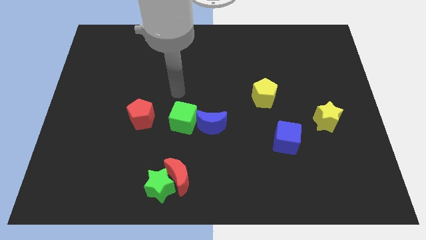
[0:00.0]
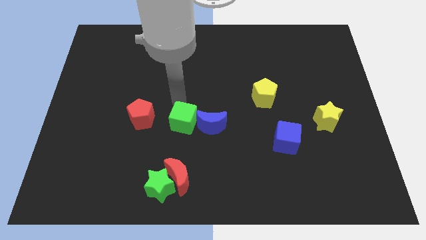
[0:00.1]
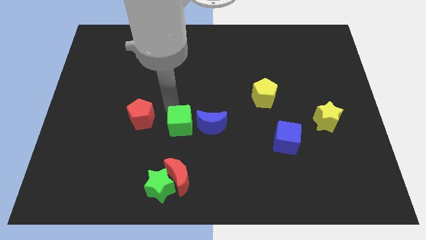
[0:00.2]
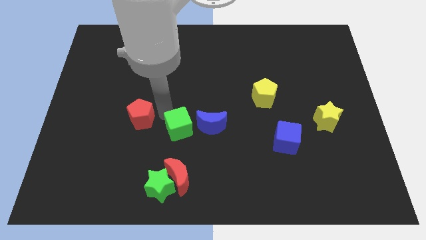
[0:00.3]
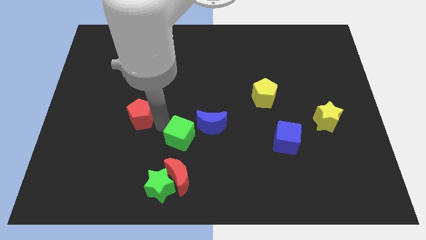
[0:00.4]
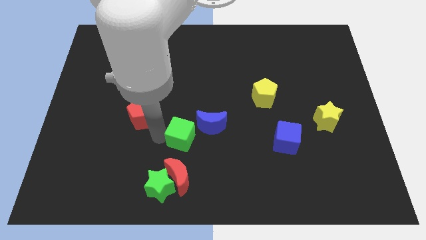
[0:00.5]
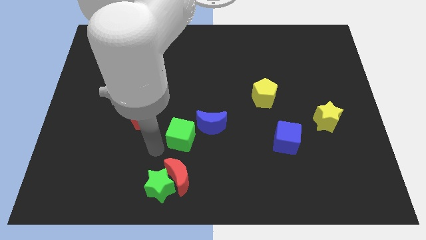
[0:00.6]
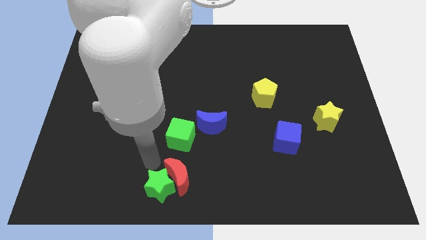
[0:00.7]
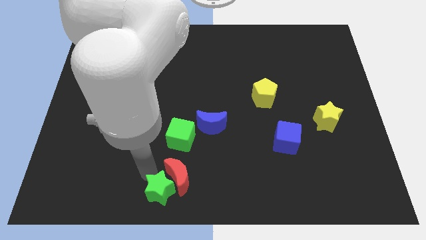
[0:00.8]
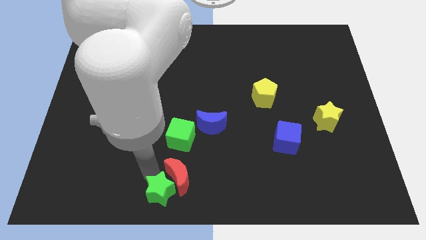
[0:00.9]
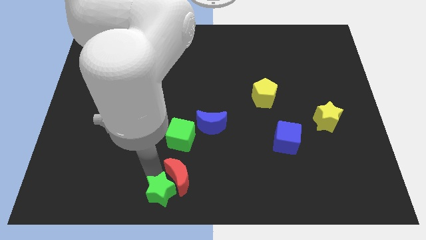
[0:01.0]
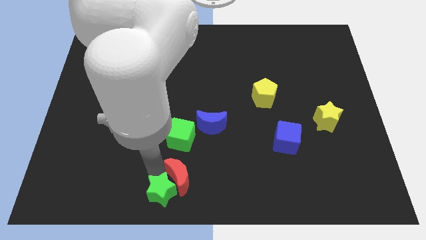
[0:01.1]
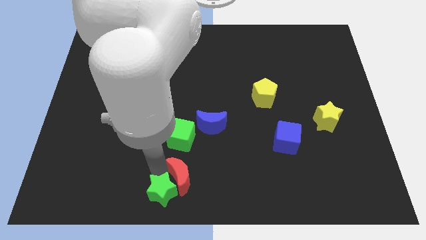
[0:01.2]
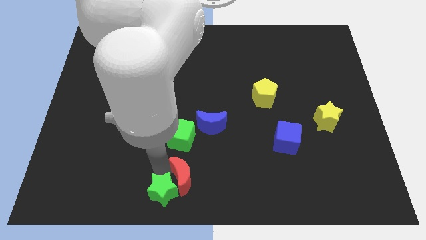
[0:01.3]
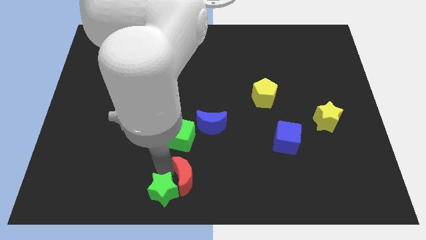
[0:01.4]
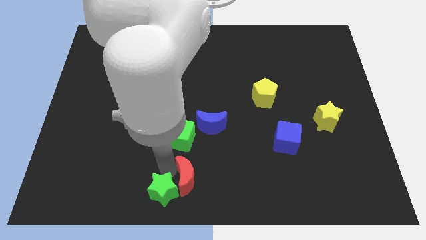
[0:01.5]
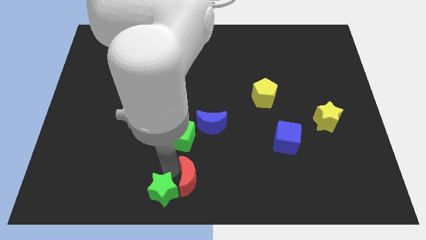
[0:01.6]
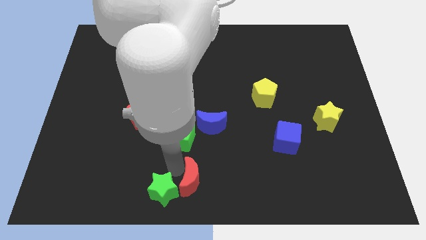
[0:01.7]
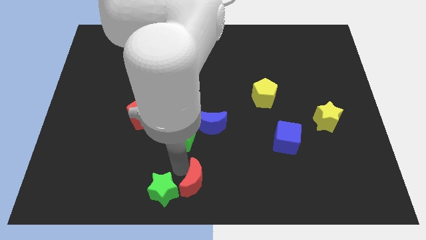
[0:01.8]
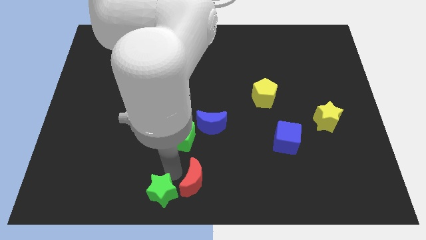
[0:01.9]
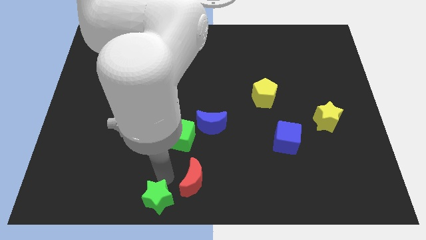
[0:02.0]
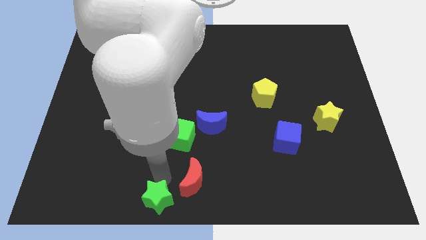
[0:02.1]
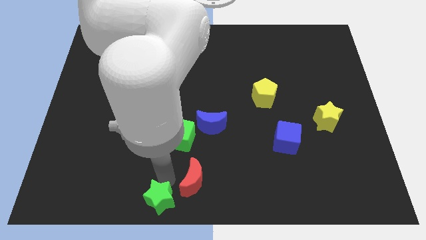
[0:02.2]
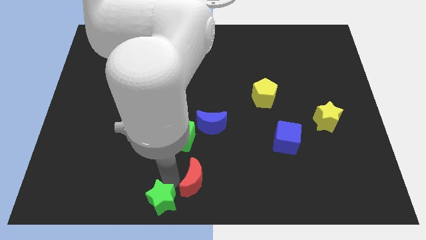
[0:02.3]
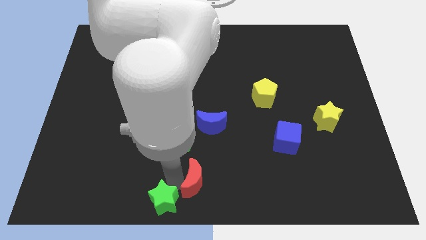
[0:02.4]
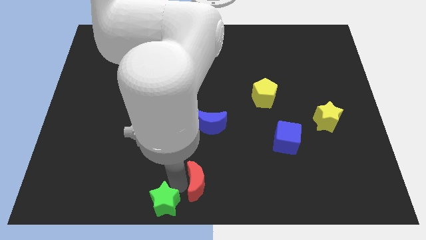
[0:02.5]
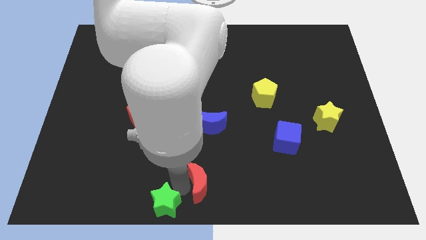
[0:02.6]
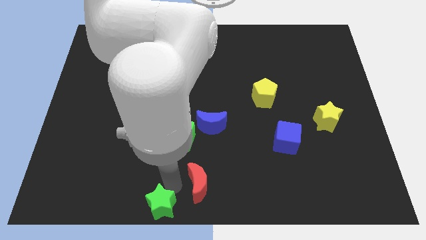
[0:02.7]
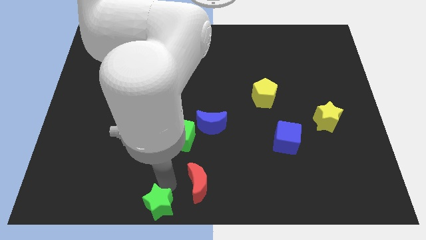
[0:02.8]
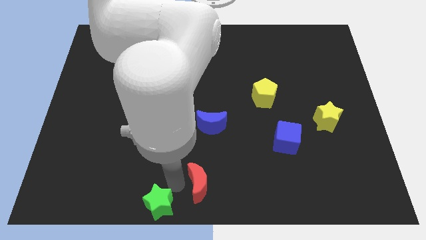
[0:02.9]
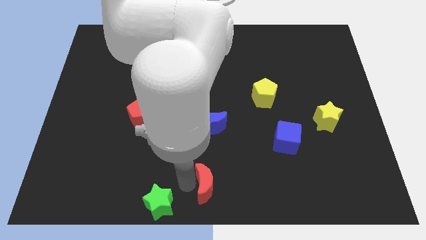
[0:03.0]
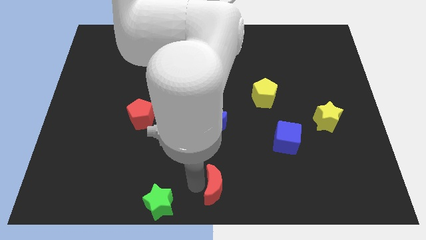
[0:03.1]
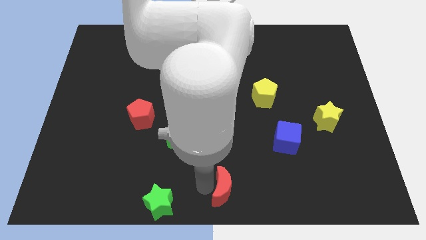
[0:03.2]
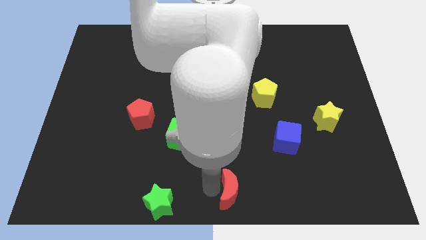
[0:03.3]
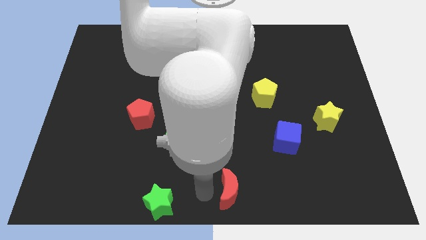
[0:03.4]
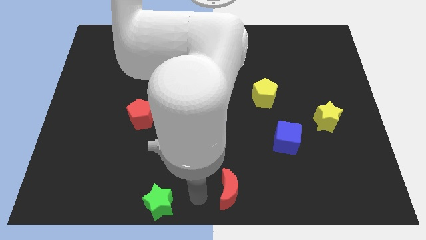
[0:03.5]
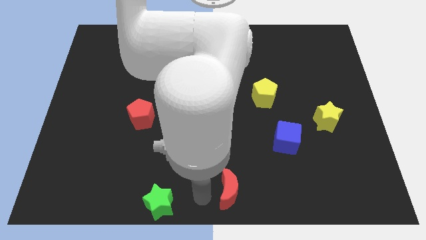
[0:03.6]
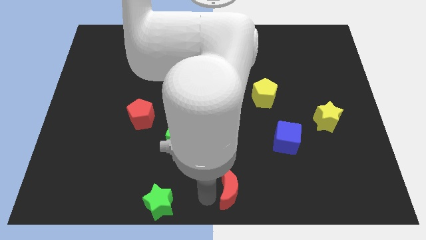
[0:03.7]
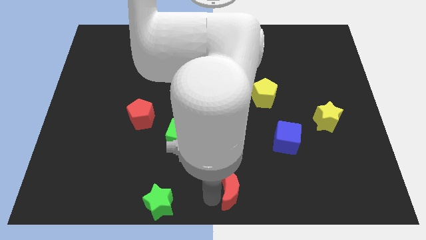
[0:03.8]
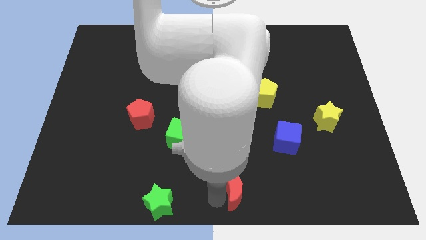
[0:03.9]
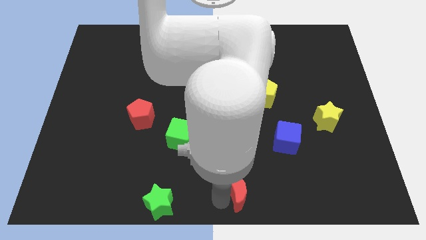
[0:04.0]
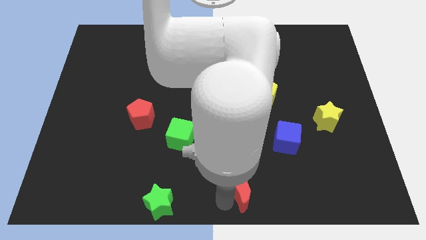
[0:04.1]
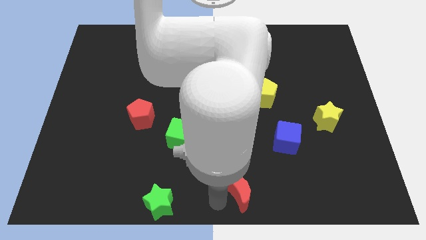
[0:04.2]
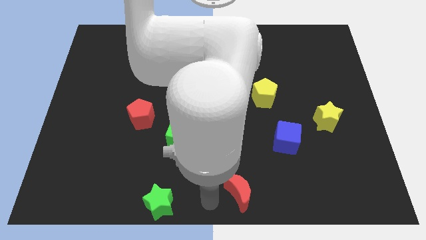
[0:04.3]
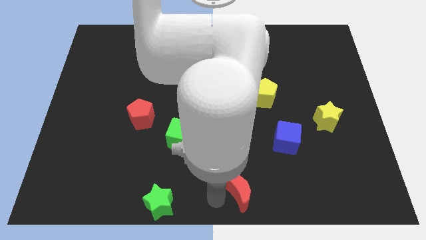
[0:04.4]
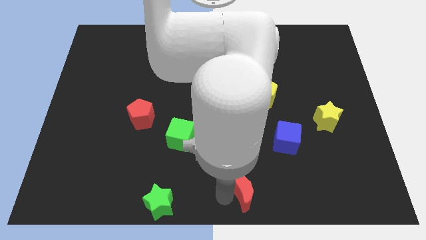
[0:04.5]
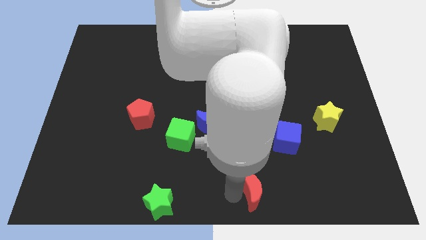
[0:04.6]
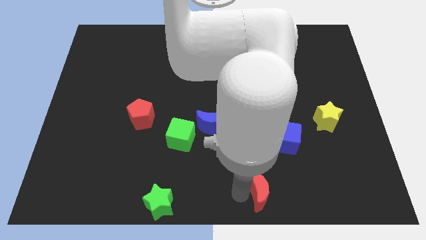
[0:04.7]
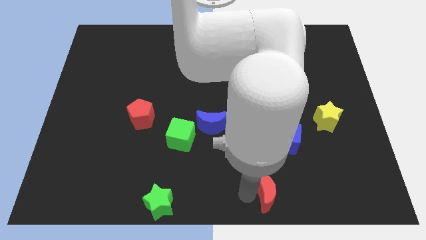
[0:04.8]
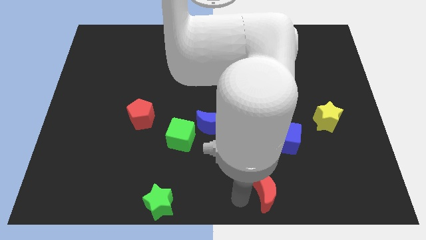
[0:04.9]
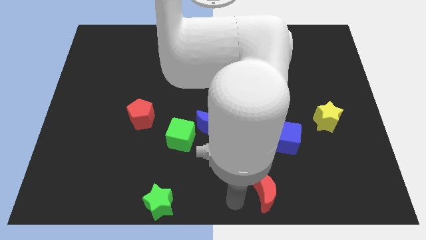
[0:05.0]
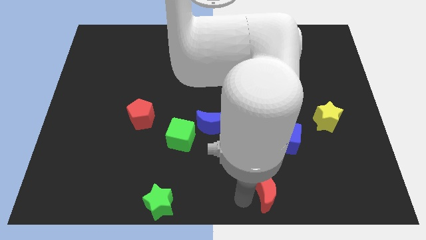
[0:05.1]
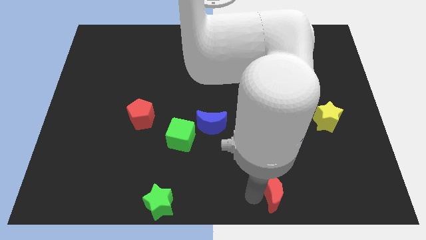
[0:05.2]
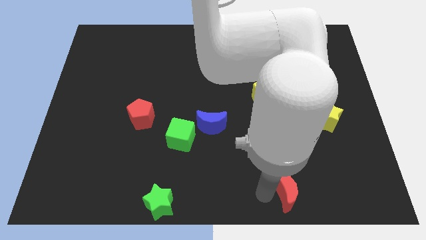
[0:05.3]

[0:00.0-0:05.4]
slide the red moon right

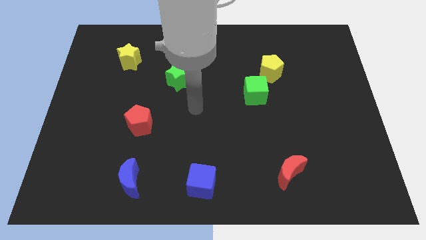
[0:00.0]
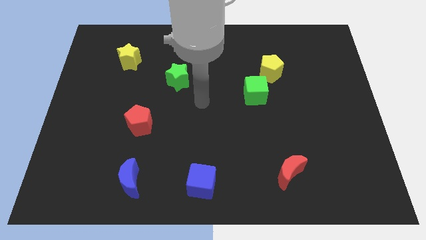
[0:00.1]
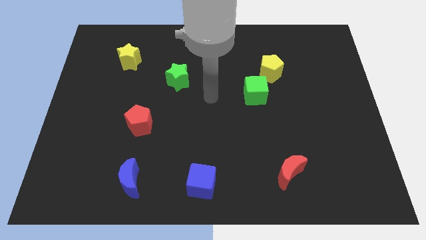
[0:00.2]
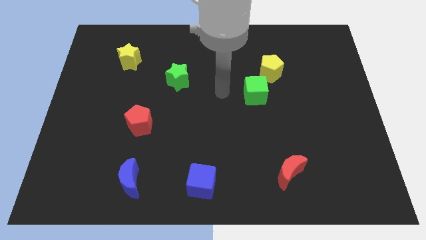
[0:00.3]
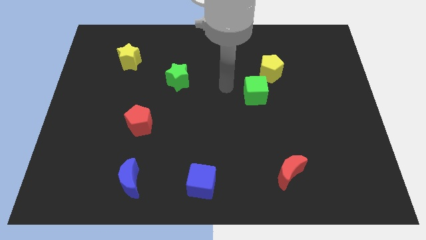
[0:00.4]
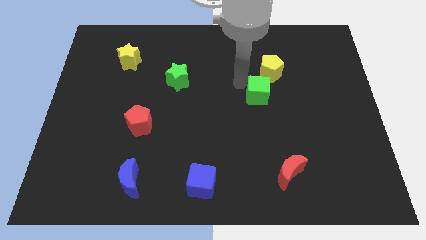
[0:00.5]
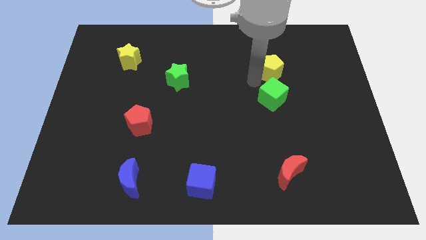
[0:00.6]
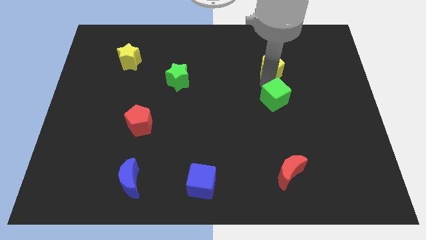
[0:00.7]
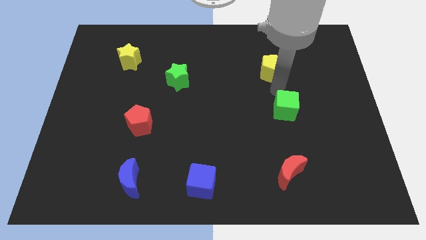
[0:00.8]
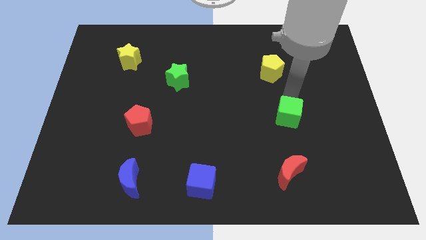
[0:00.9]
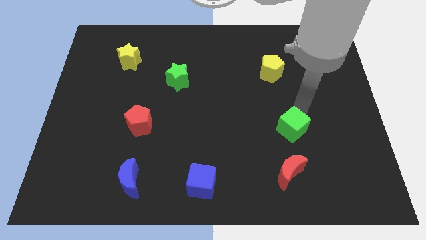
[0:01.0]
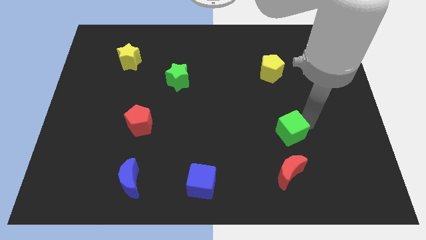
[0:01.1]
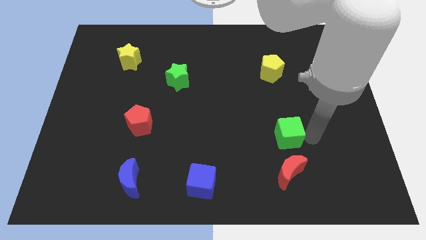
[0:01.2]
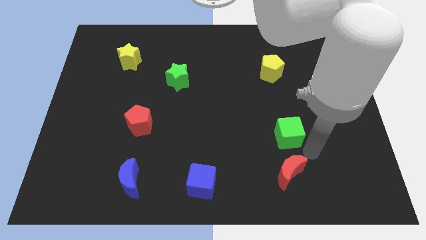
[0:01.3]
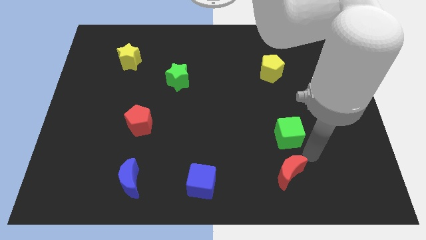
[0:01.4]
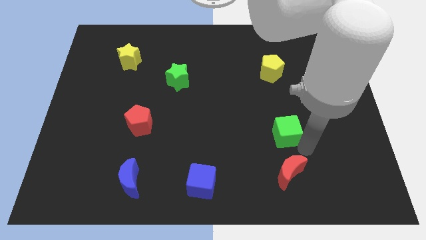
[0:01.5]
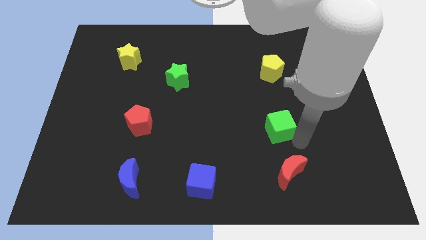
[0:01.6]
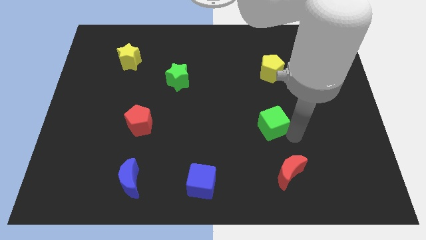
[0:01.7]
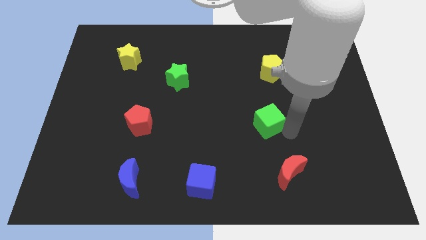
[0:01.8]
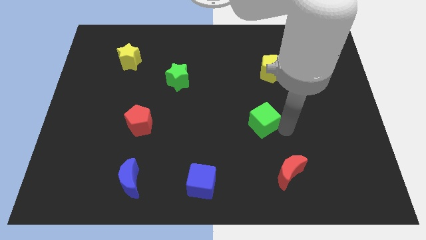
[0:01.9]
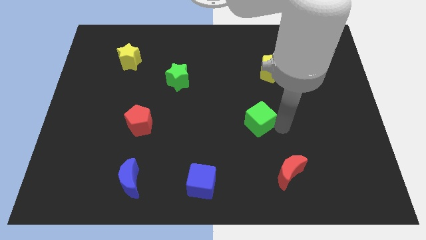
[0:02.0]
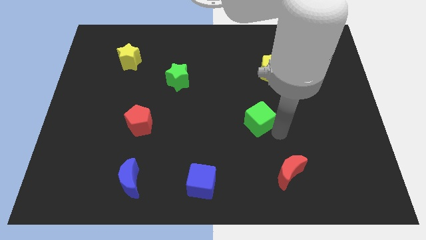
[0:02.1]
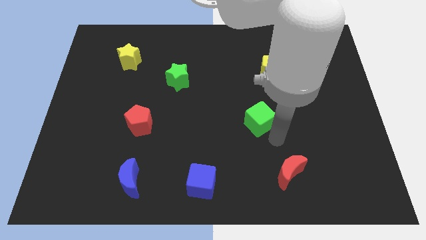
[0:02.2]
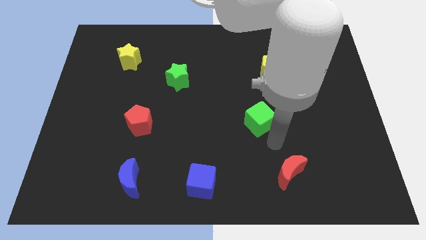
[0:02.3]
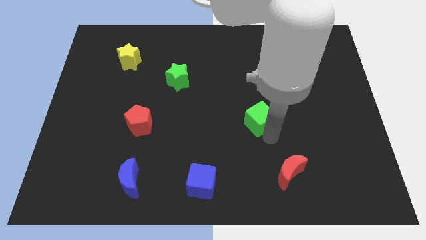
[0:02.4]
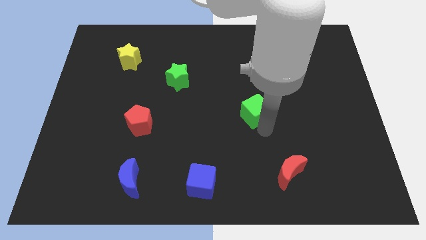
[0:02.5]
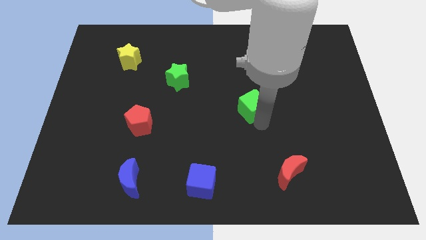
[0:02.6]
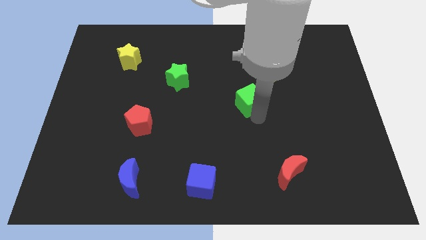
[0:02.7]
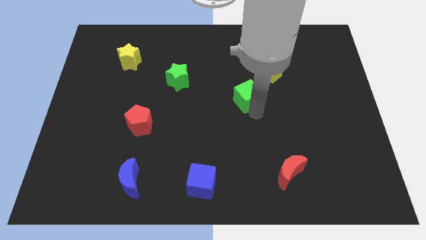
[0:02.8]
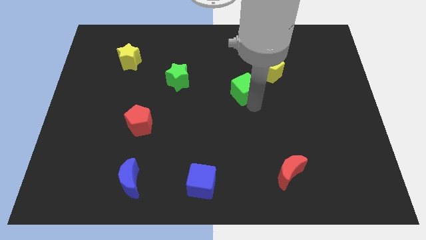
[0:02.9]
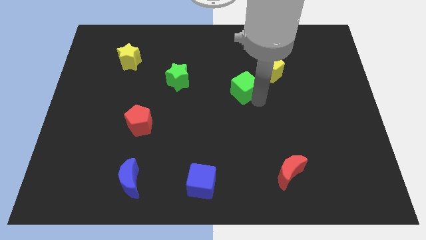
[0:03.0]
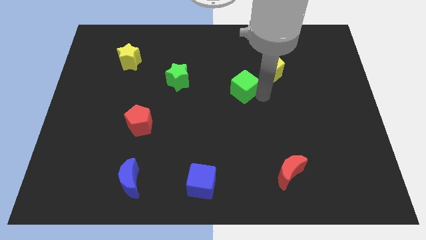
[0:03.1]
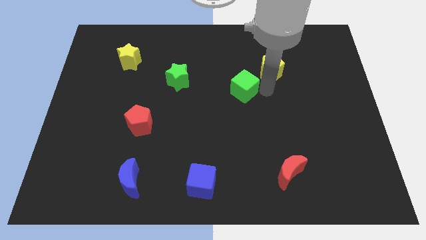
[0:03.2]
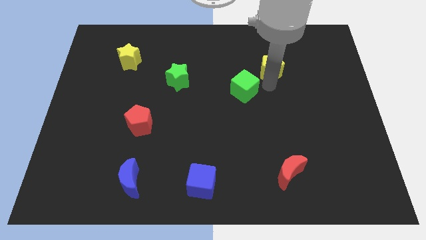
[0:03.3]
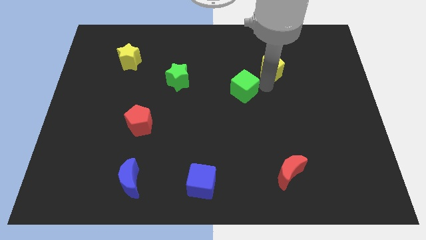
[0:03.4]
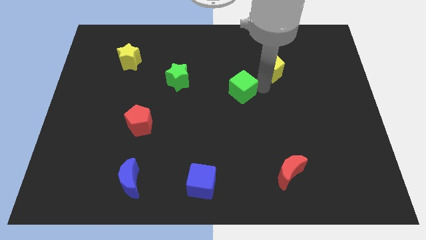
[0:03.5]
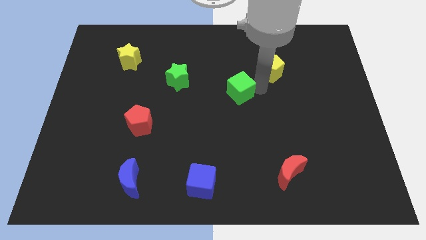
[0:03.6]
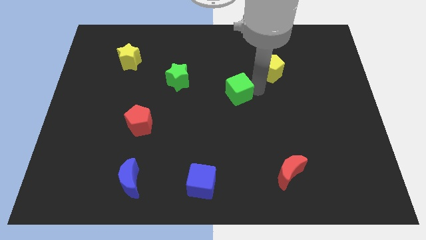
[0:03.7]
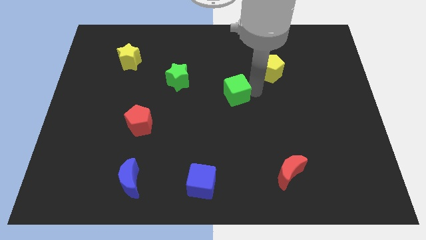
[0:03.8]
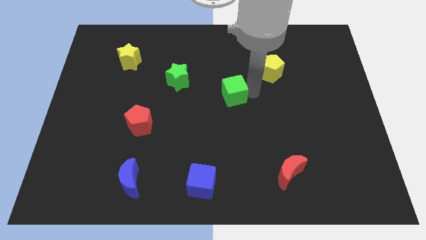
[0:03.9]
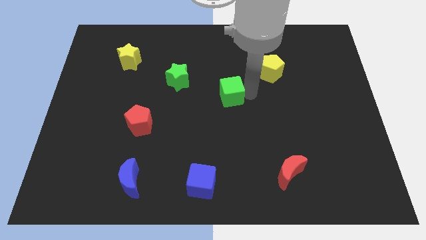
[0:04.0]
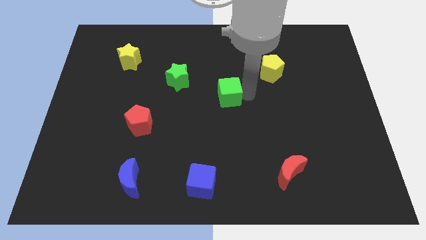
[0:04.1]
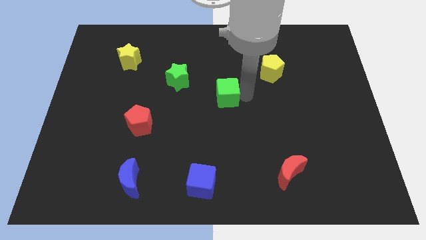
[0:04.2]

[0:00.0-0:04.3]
push the green cube a little to the left
